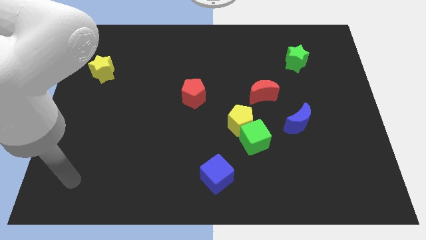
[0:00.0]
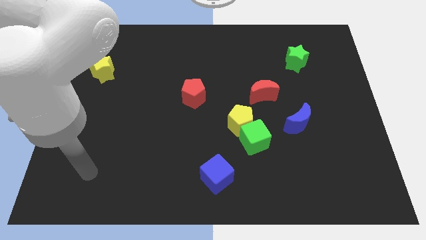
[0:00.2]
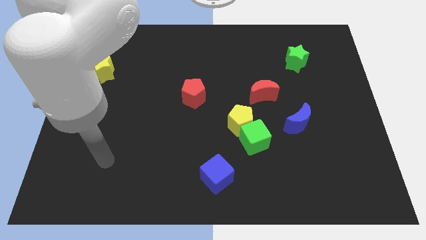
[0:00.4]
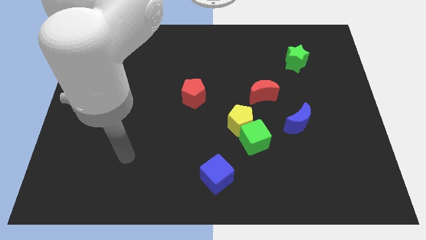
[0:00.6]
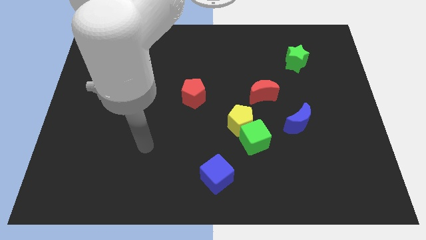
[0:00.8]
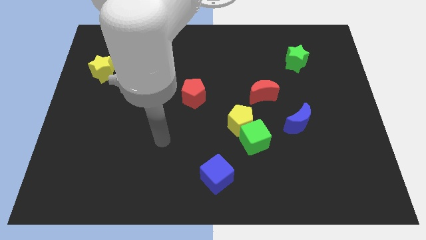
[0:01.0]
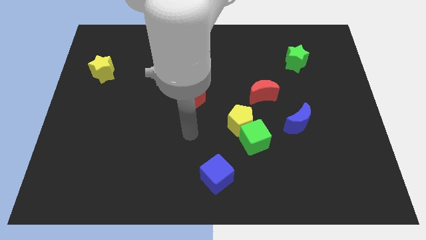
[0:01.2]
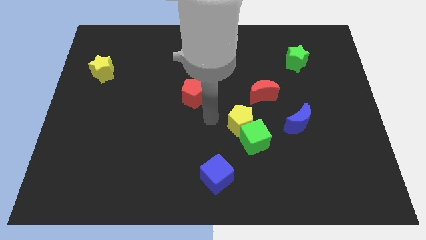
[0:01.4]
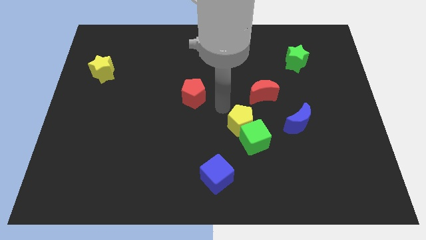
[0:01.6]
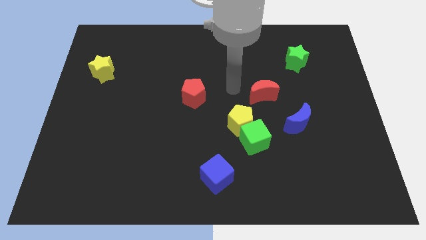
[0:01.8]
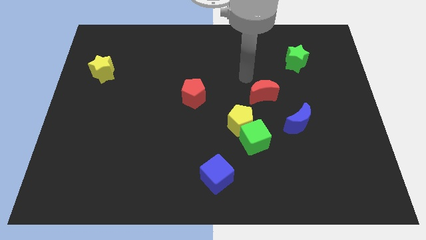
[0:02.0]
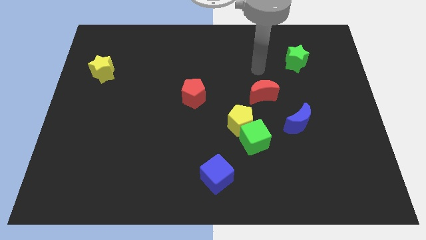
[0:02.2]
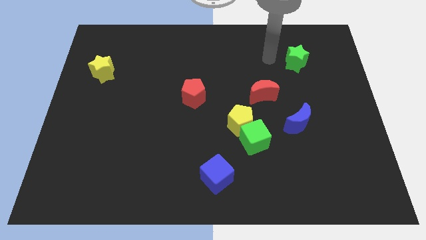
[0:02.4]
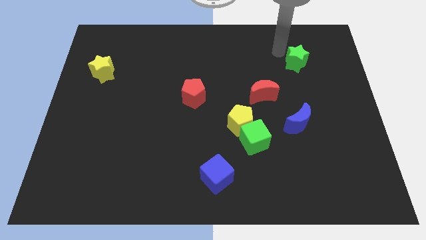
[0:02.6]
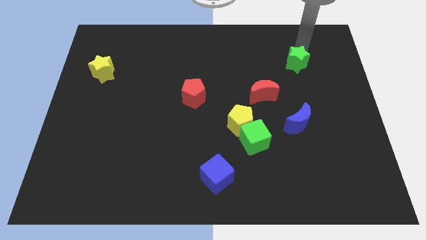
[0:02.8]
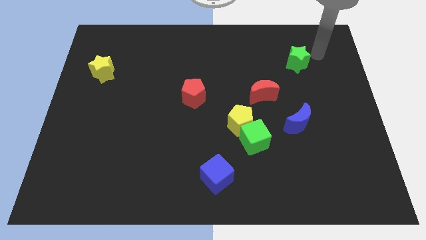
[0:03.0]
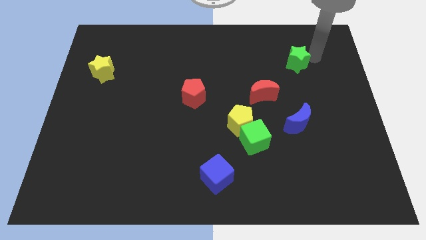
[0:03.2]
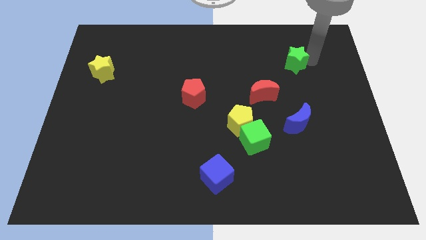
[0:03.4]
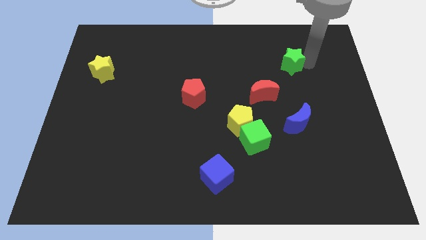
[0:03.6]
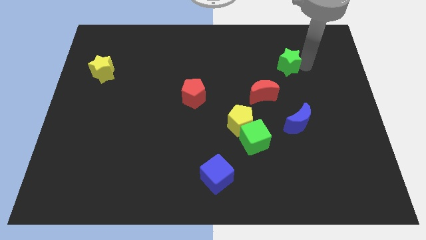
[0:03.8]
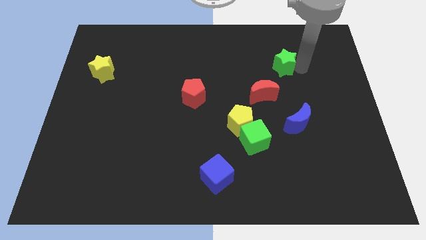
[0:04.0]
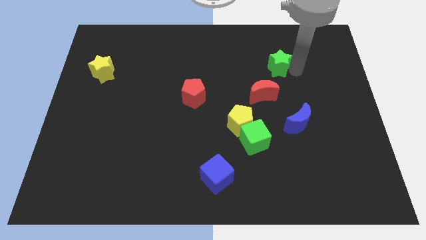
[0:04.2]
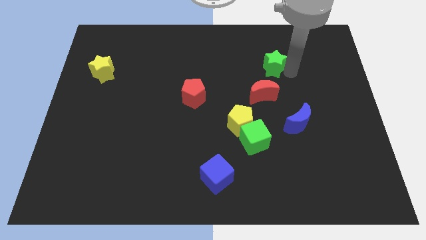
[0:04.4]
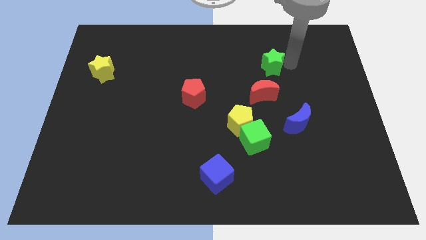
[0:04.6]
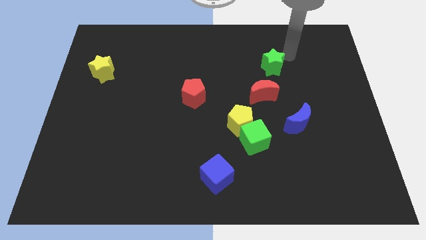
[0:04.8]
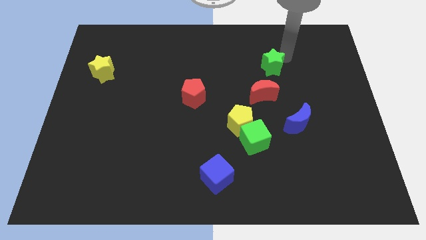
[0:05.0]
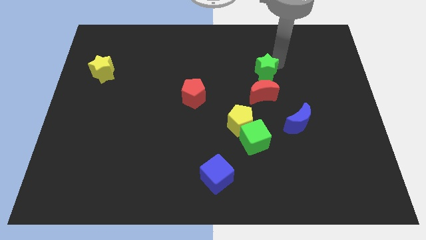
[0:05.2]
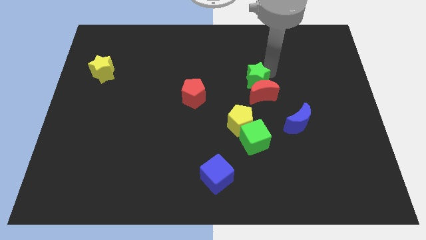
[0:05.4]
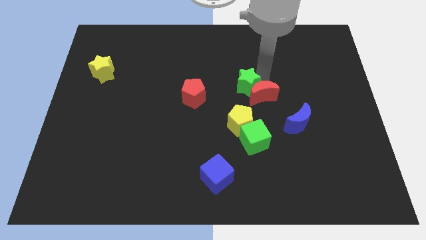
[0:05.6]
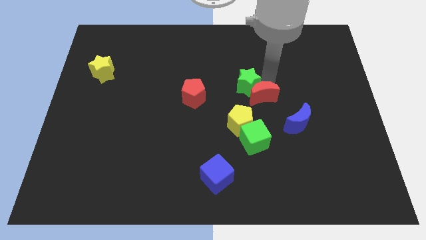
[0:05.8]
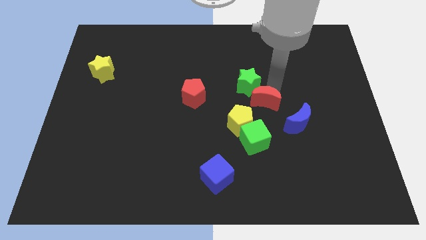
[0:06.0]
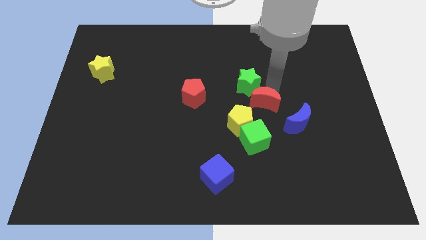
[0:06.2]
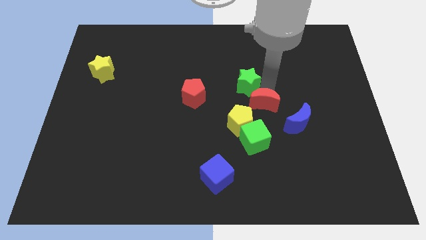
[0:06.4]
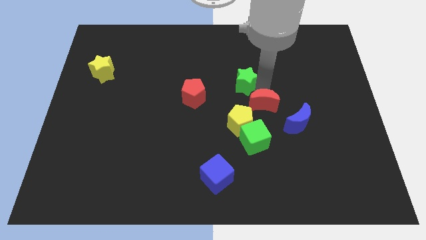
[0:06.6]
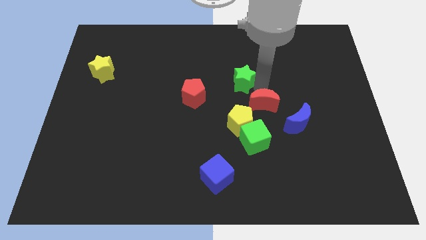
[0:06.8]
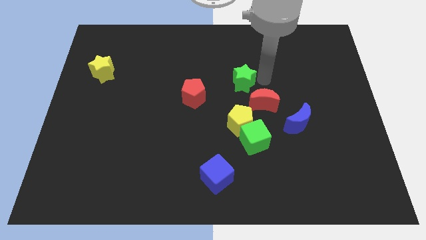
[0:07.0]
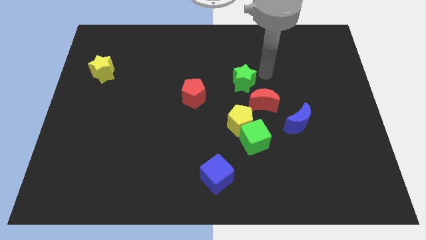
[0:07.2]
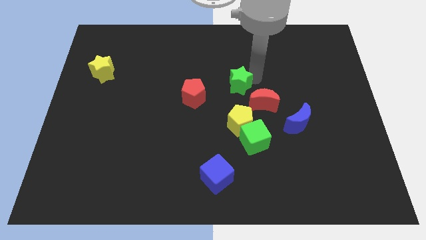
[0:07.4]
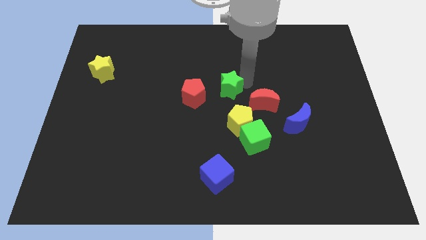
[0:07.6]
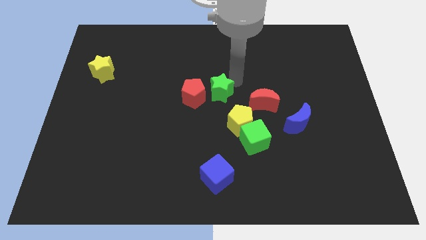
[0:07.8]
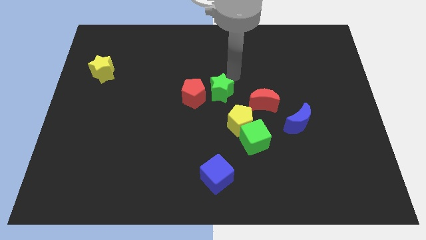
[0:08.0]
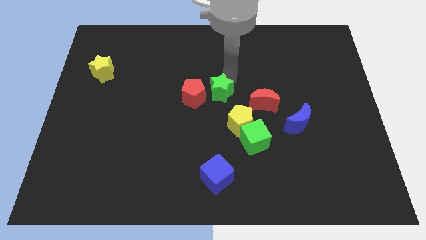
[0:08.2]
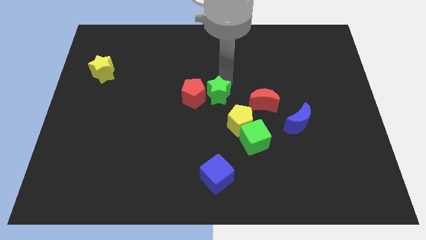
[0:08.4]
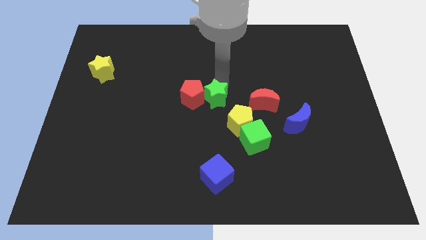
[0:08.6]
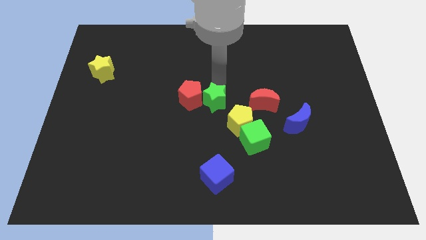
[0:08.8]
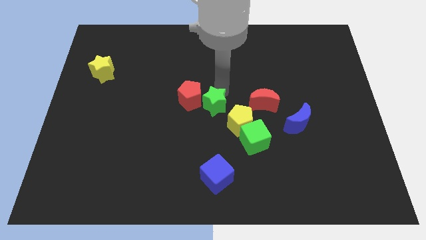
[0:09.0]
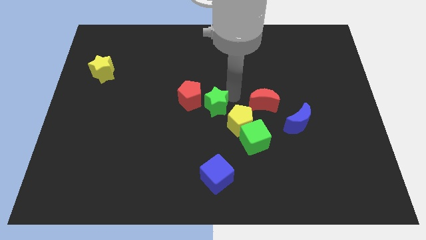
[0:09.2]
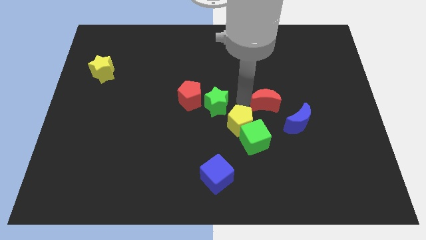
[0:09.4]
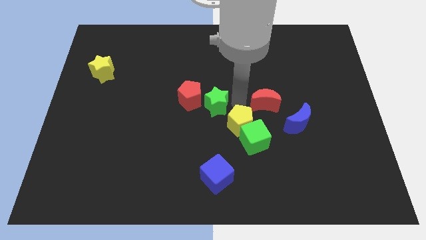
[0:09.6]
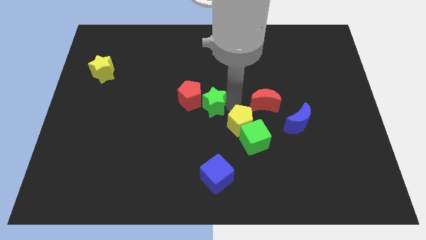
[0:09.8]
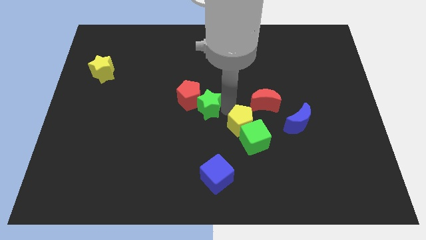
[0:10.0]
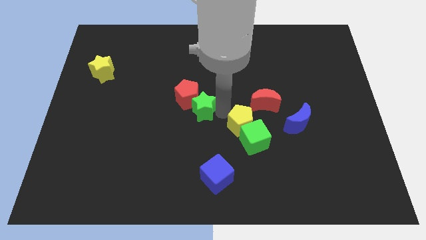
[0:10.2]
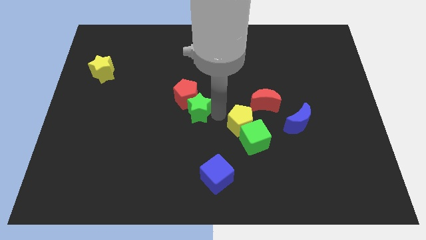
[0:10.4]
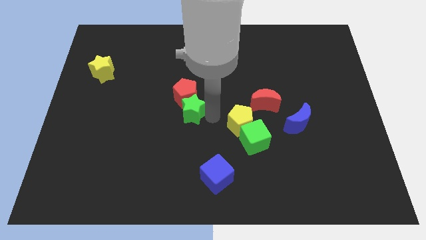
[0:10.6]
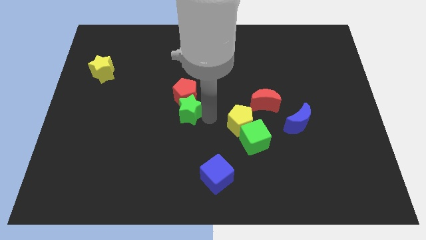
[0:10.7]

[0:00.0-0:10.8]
slide the green star to the bottom left of the red pentagon

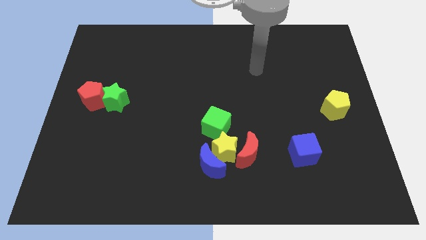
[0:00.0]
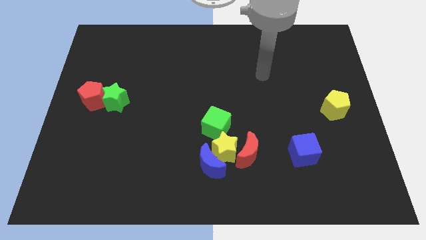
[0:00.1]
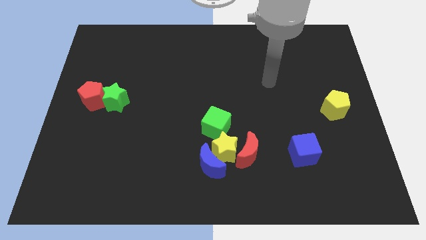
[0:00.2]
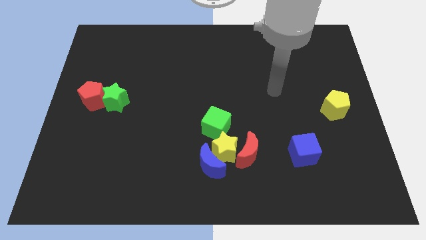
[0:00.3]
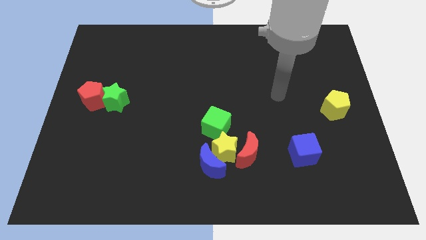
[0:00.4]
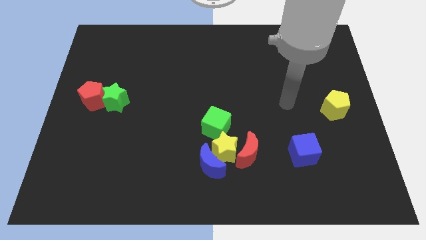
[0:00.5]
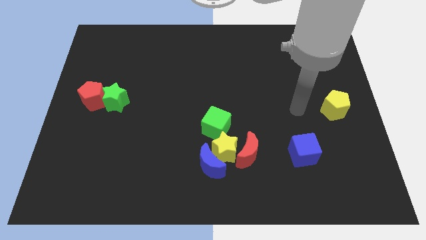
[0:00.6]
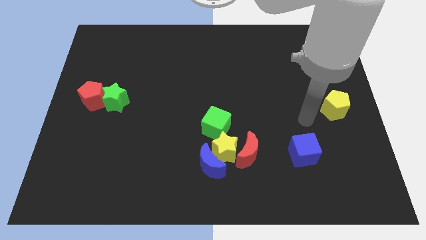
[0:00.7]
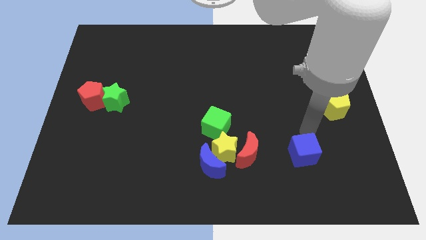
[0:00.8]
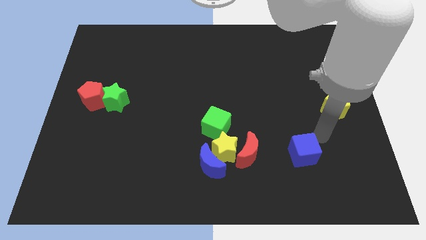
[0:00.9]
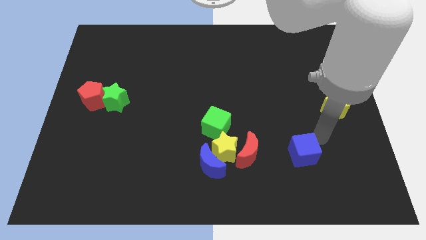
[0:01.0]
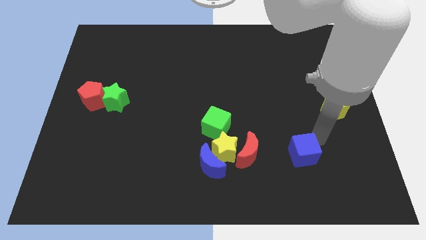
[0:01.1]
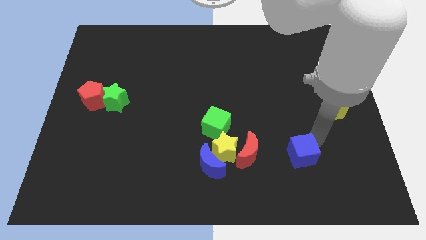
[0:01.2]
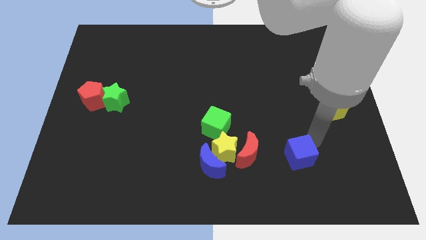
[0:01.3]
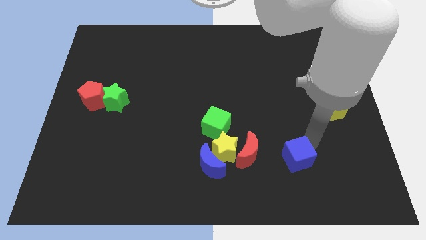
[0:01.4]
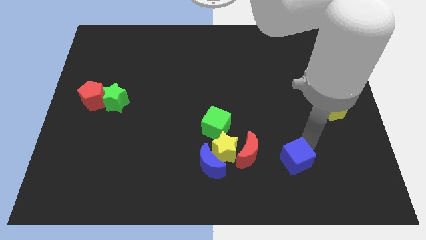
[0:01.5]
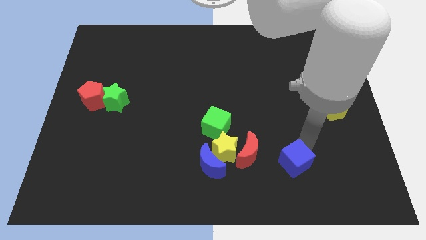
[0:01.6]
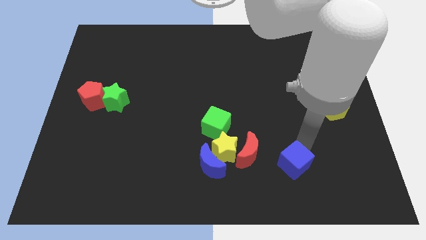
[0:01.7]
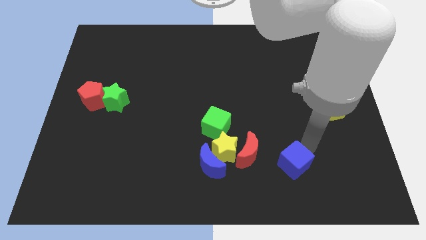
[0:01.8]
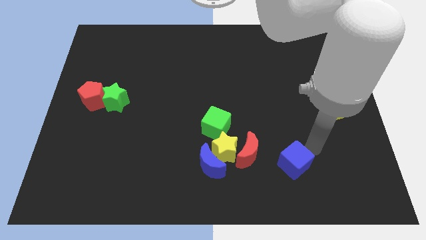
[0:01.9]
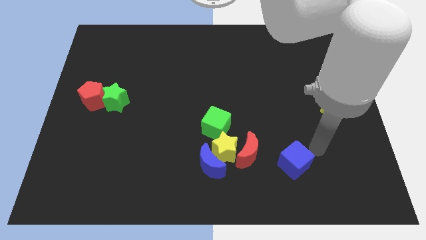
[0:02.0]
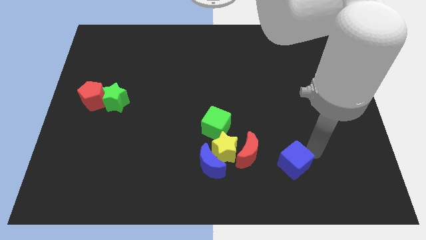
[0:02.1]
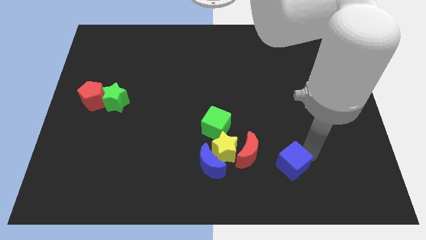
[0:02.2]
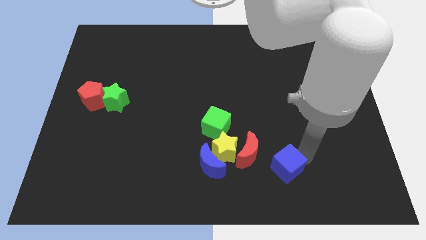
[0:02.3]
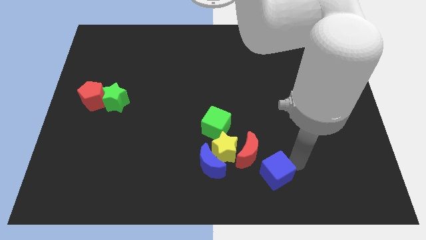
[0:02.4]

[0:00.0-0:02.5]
put the blue cube diagonally down and to the right of the yellow star
